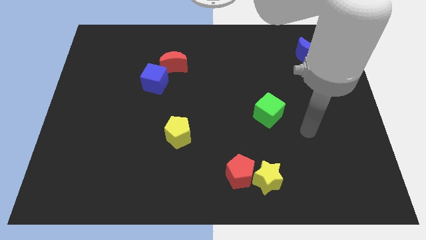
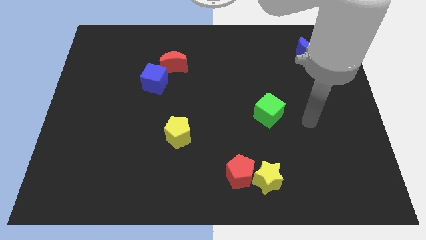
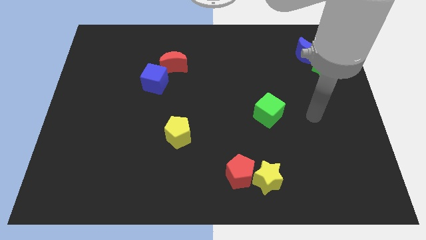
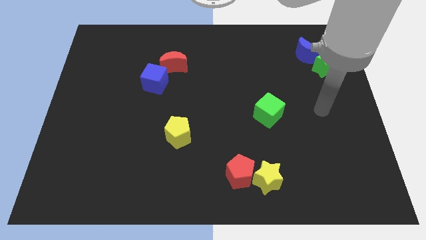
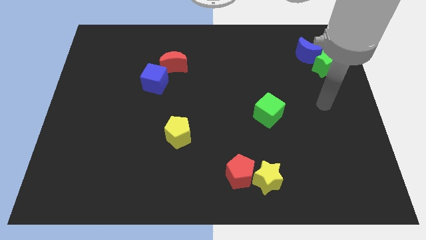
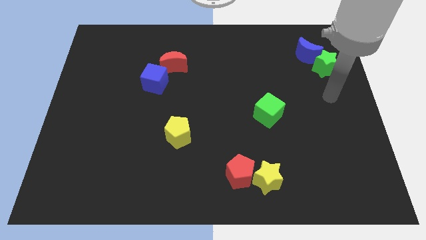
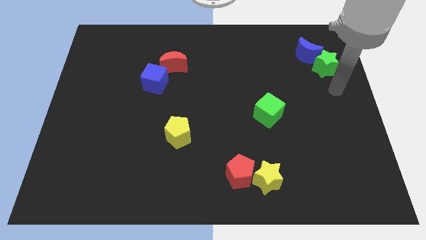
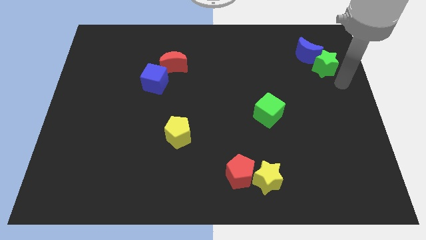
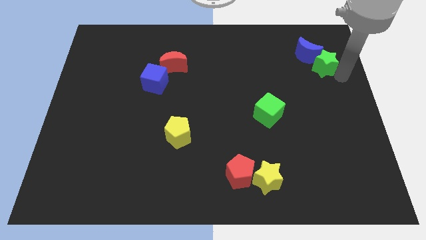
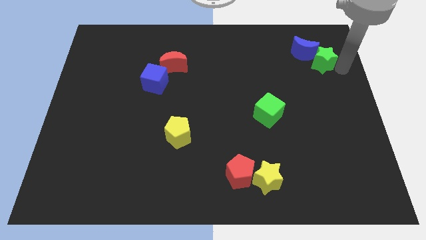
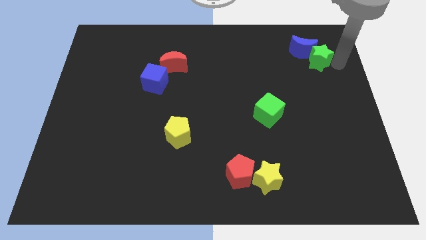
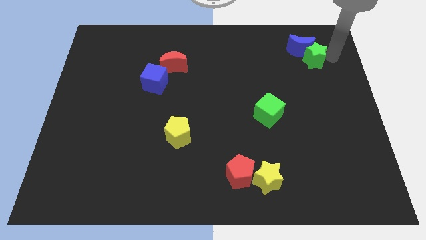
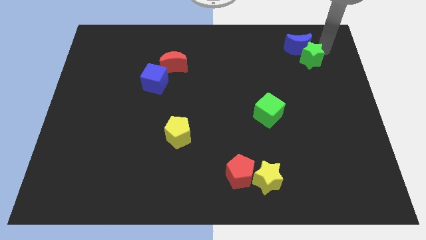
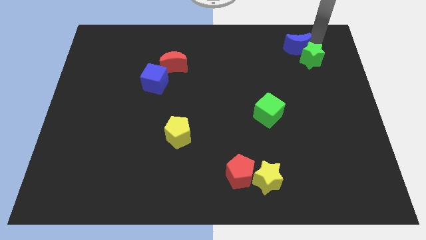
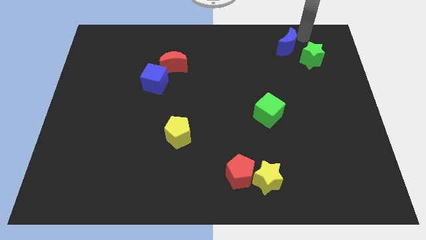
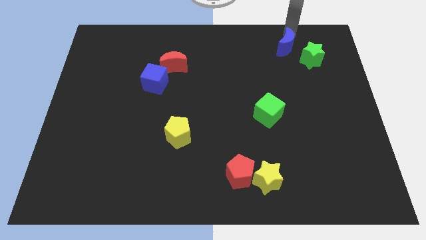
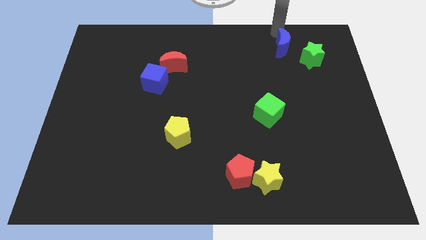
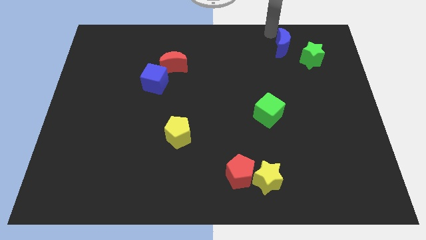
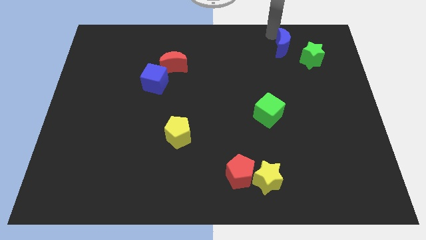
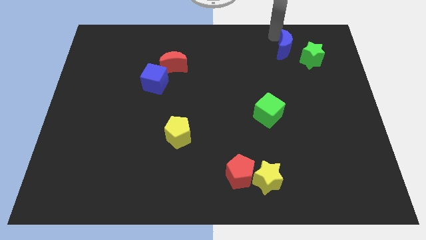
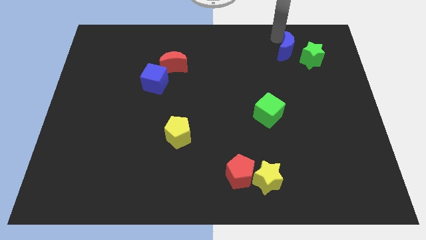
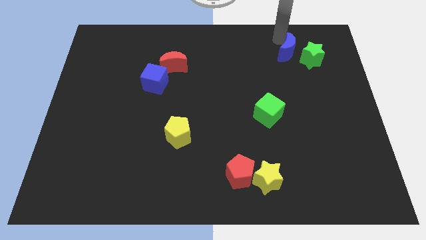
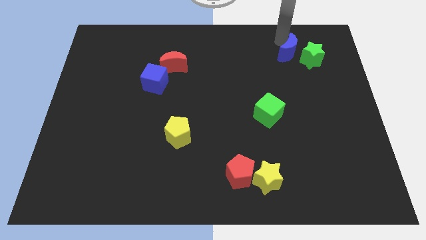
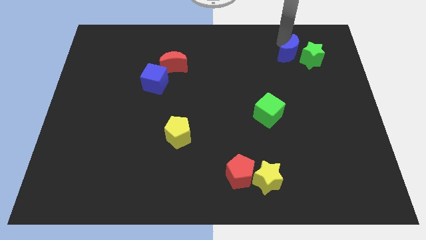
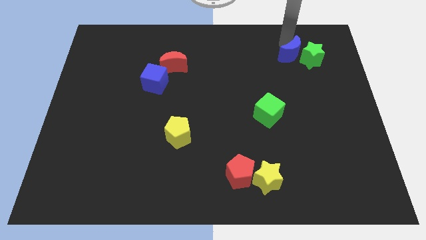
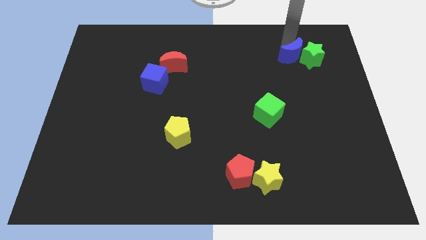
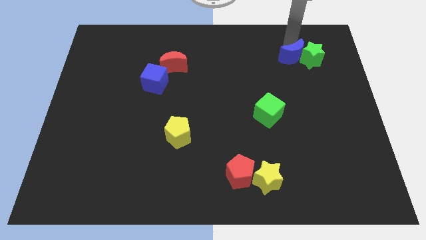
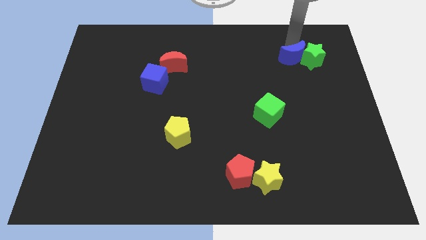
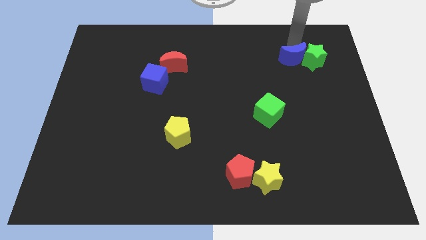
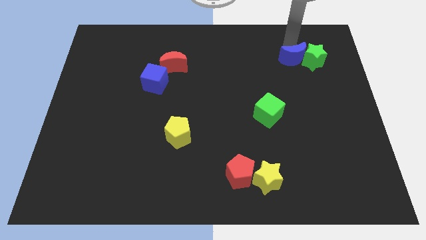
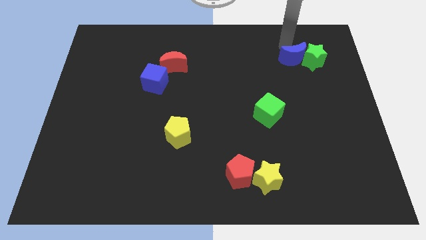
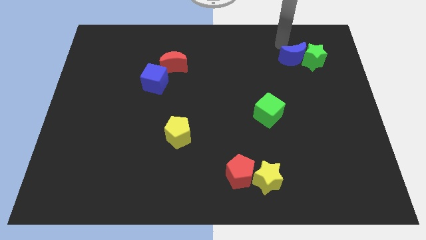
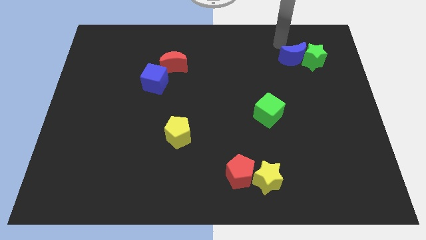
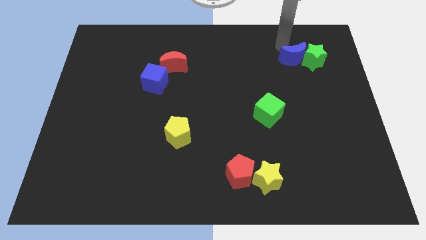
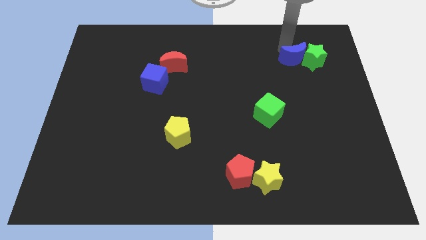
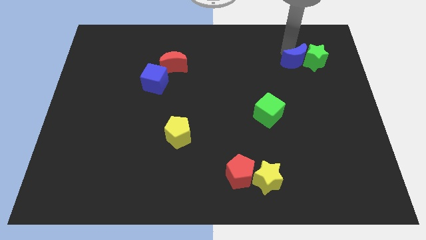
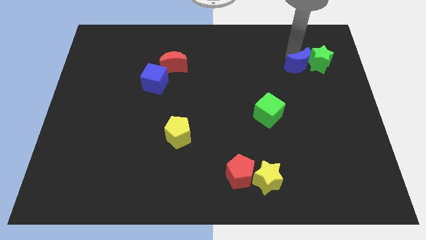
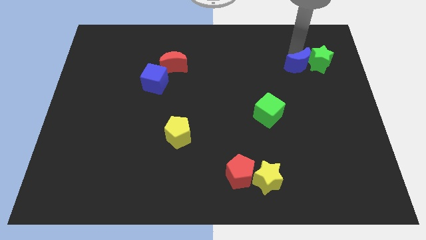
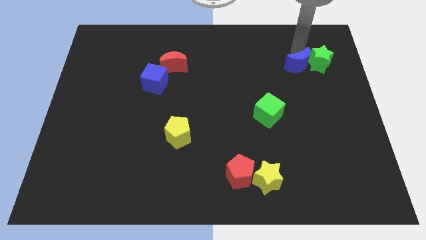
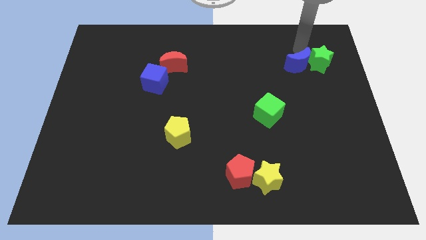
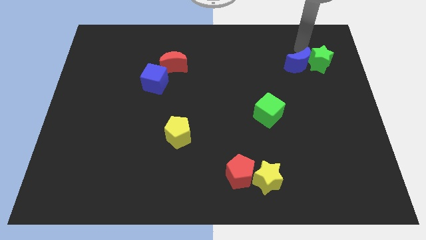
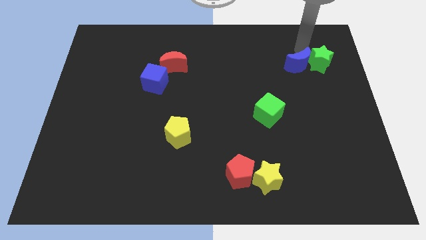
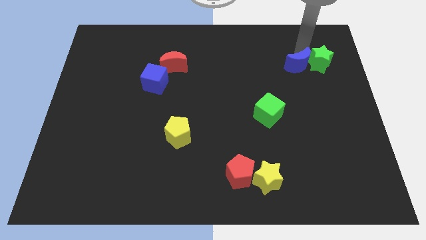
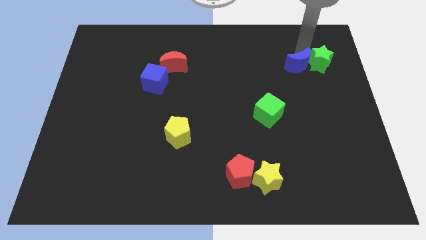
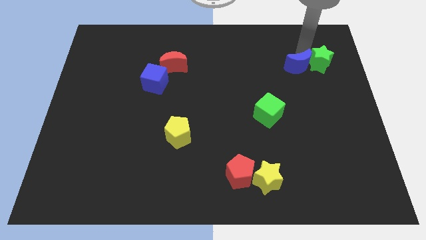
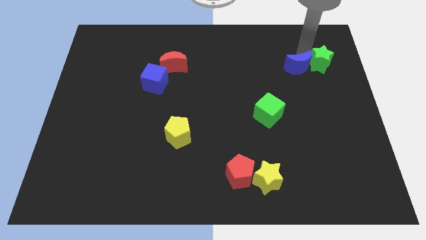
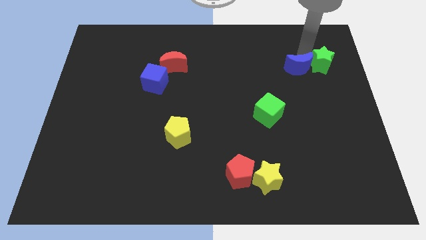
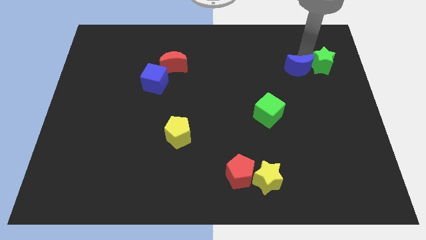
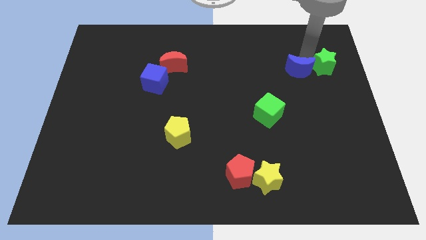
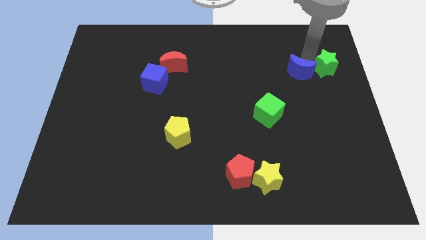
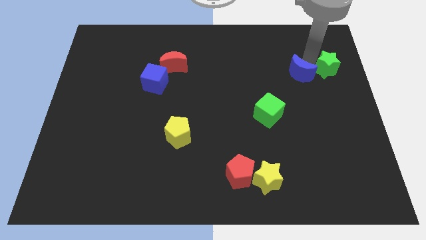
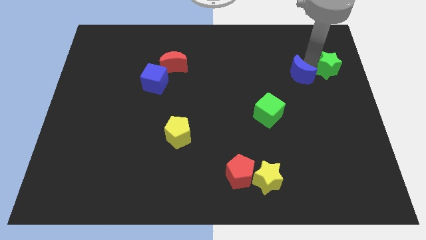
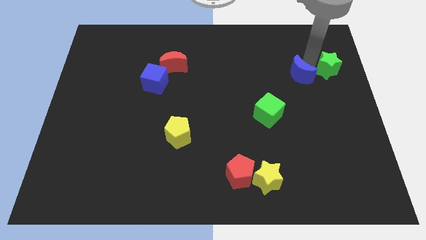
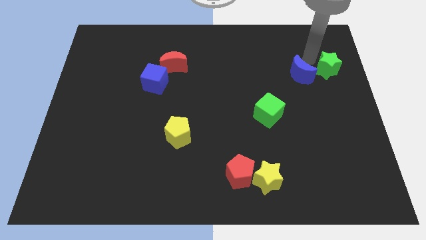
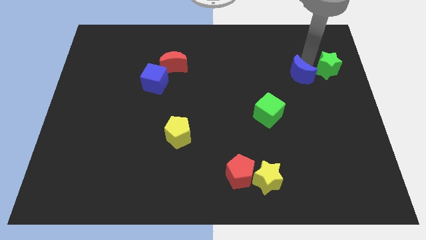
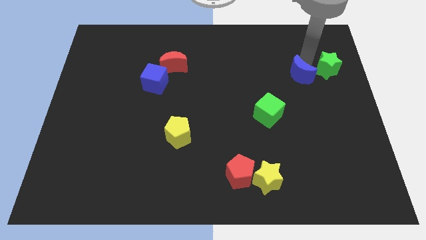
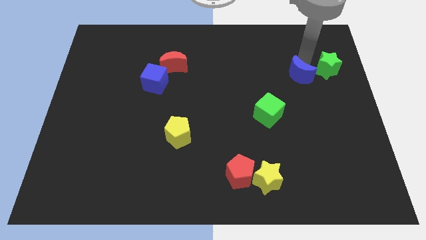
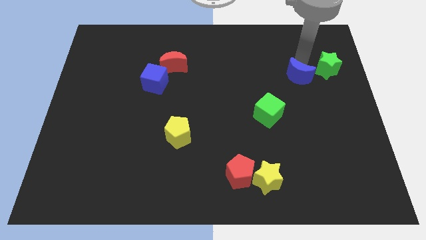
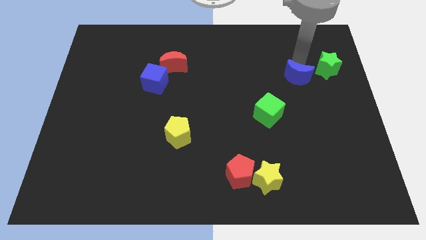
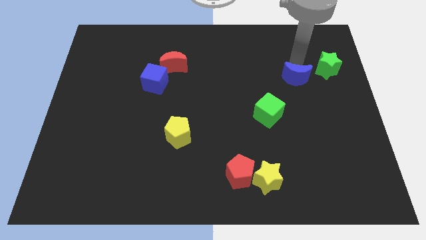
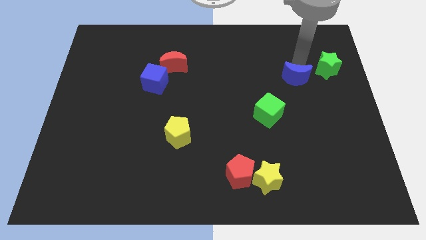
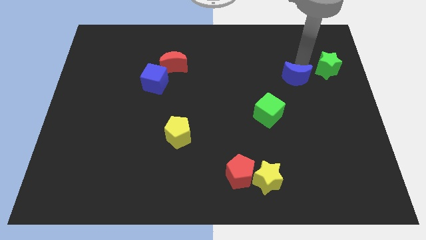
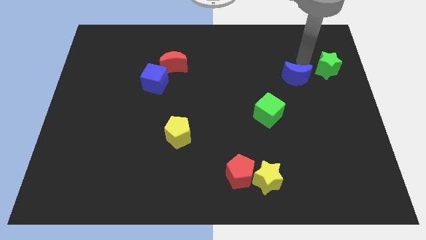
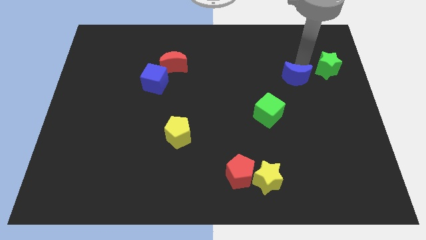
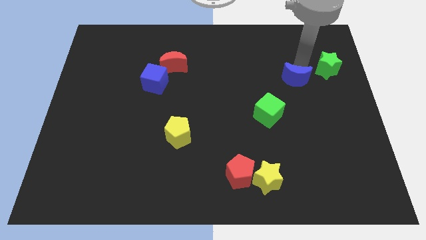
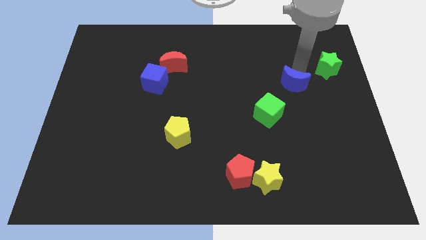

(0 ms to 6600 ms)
slide the blue moon to the top right of the green cube

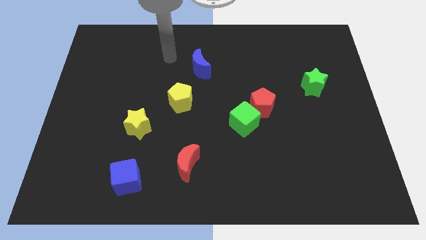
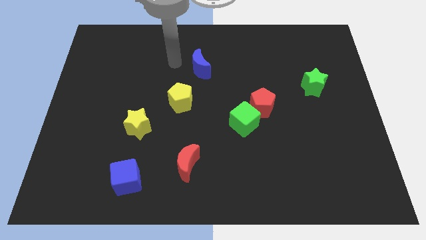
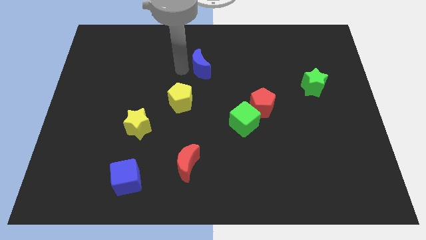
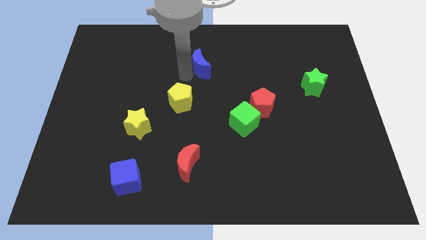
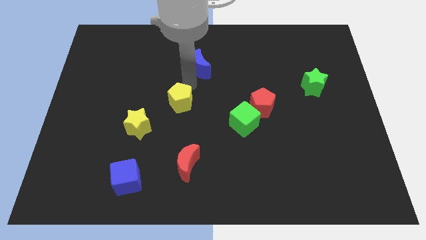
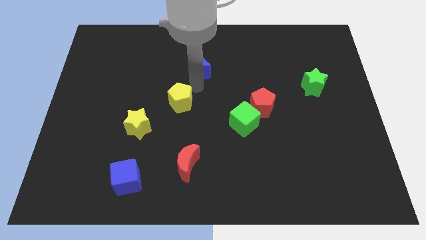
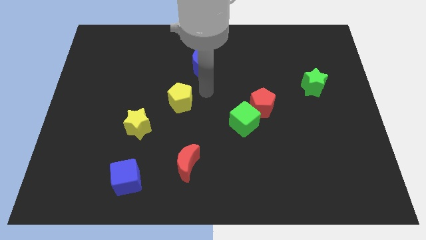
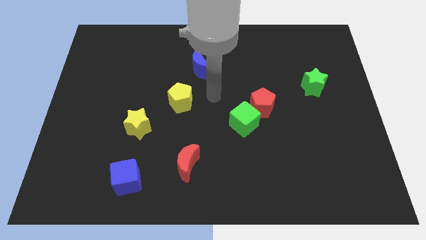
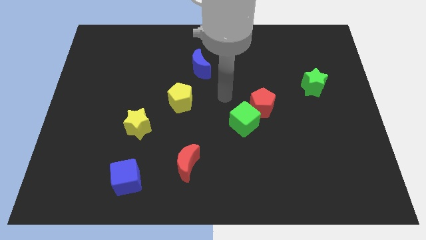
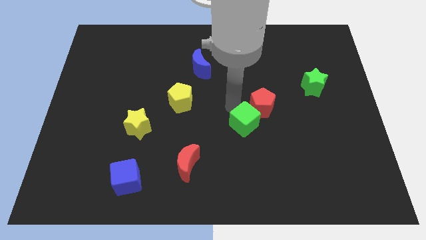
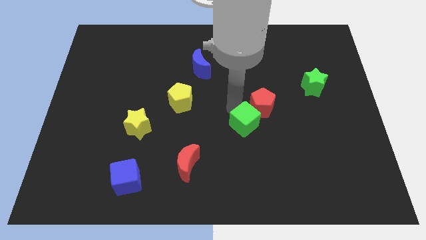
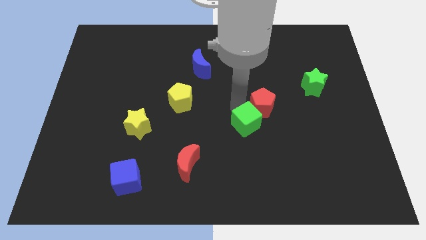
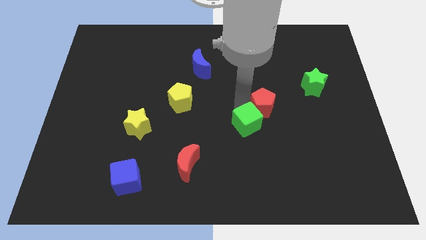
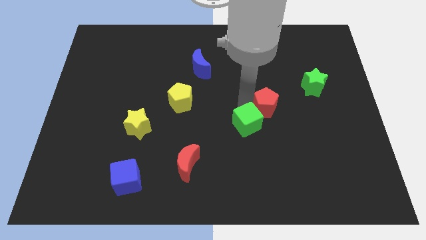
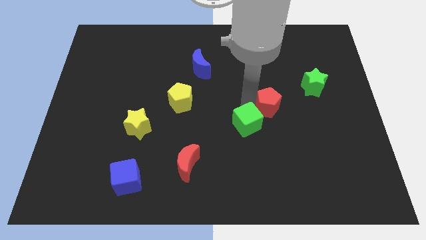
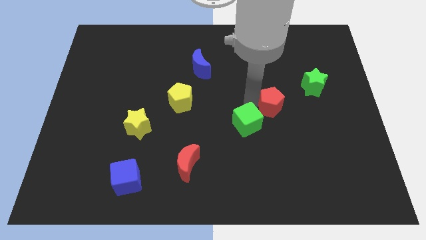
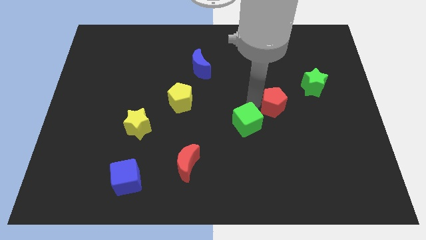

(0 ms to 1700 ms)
move the red pentagon diagonally down and to the left of the green star
